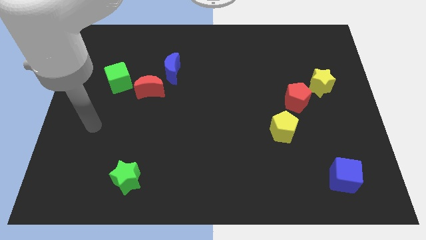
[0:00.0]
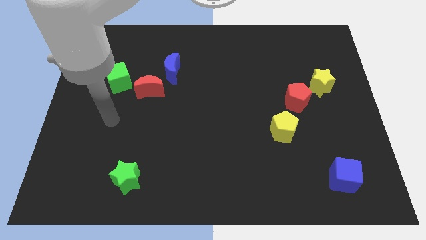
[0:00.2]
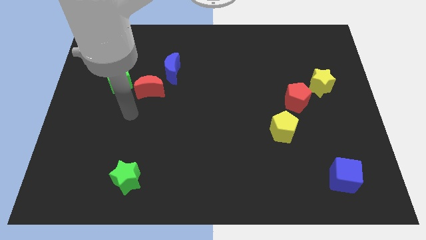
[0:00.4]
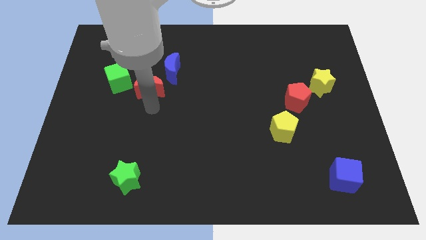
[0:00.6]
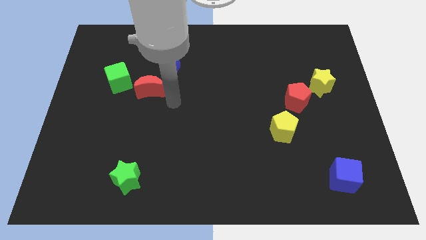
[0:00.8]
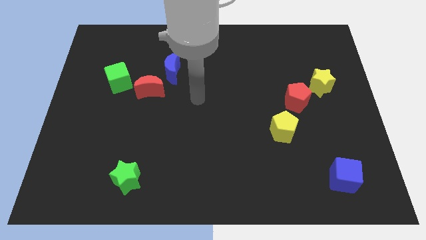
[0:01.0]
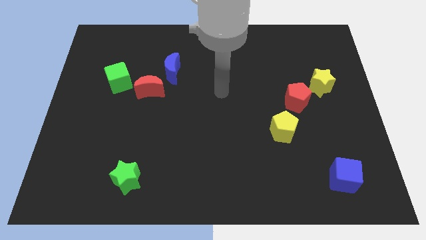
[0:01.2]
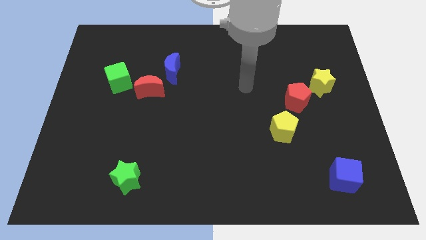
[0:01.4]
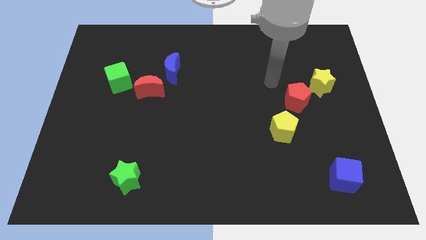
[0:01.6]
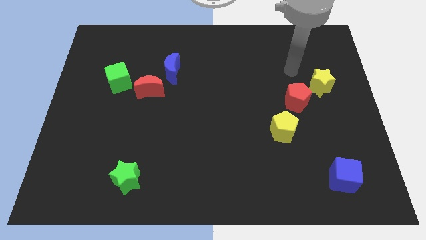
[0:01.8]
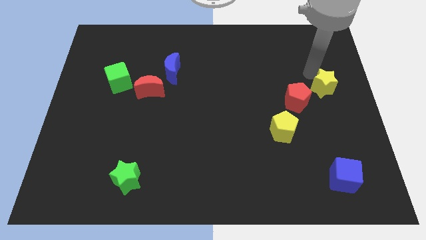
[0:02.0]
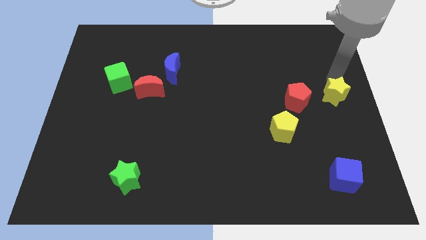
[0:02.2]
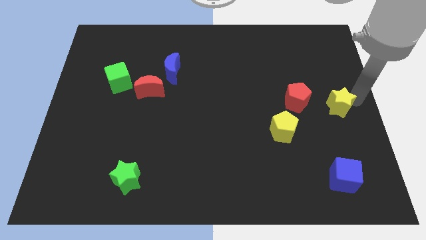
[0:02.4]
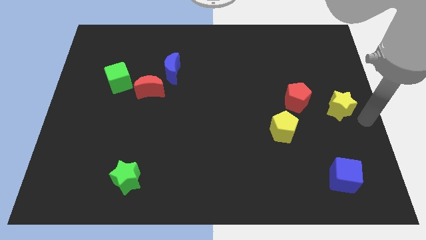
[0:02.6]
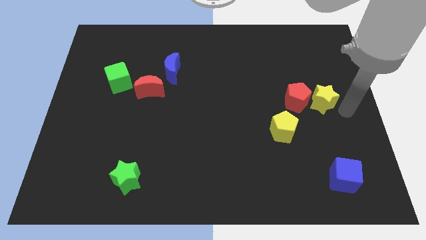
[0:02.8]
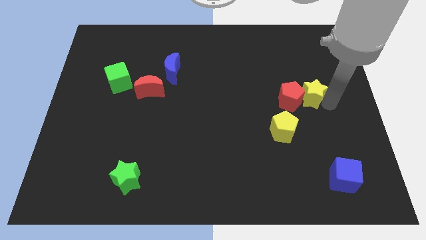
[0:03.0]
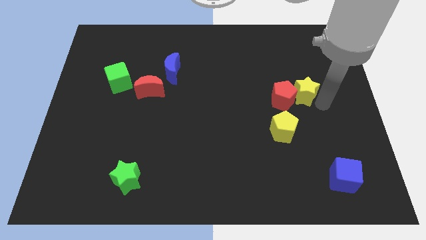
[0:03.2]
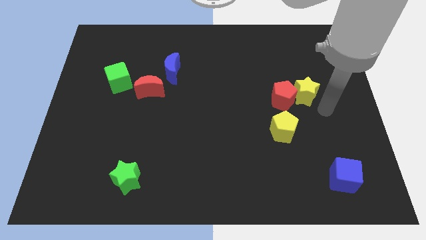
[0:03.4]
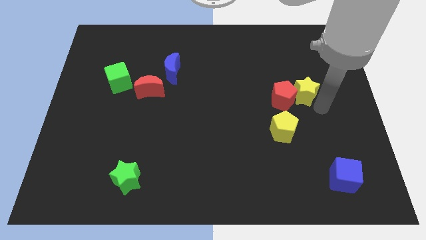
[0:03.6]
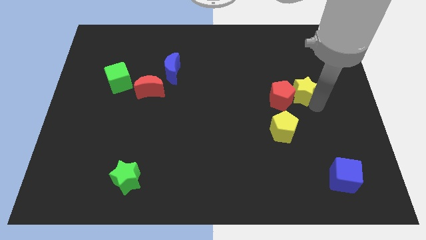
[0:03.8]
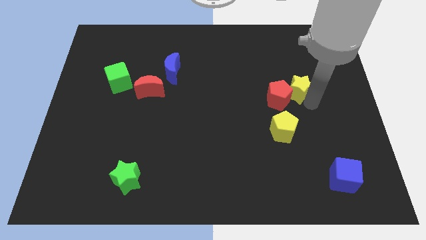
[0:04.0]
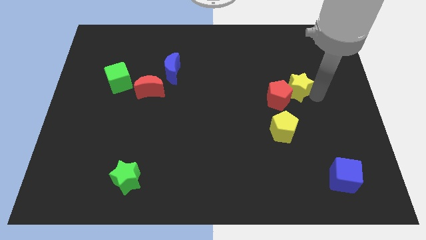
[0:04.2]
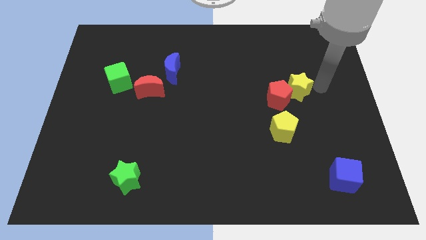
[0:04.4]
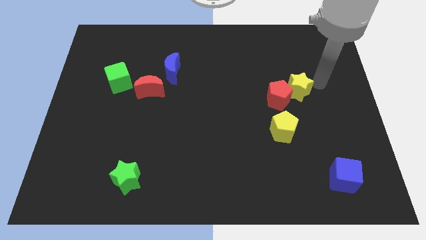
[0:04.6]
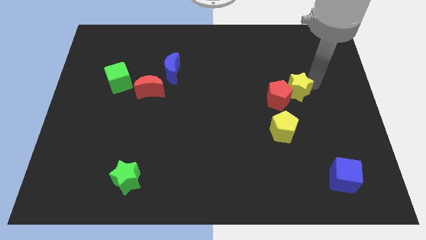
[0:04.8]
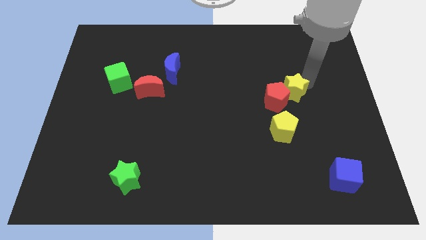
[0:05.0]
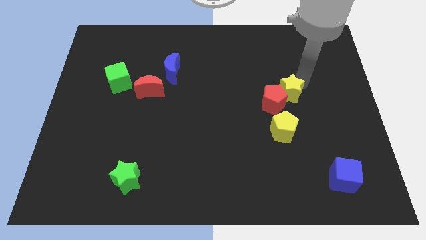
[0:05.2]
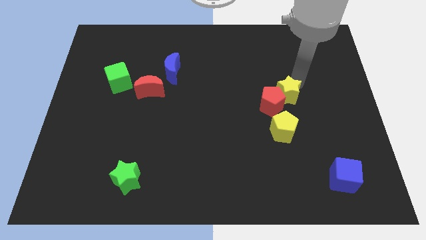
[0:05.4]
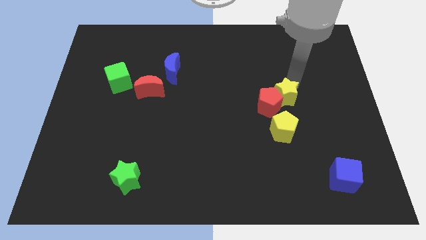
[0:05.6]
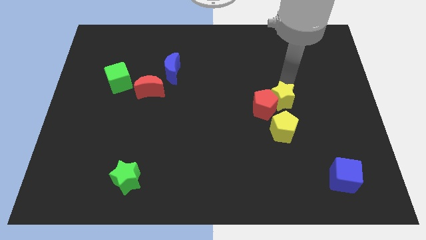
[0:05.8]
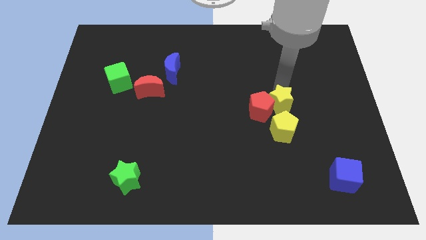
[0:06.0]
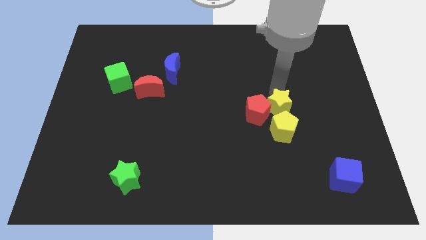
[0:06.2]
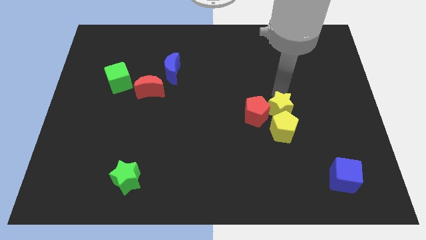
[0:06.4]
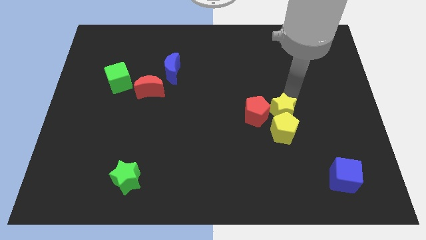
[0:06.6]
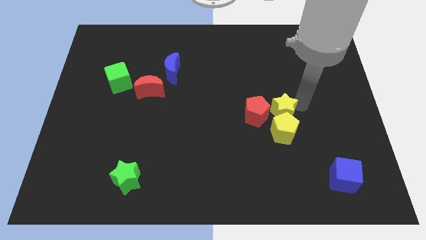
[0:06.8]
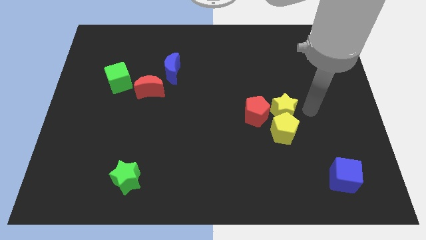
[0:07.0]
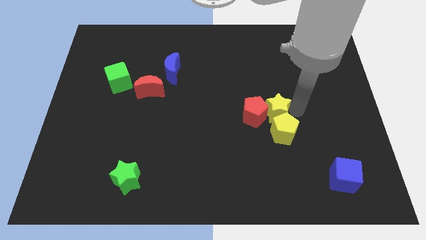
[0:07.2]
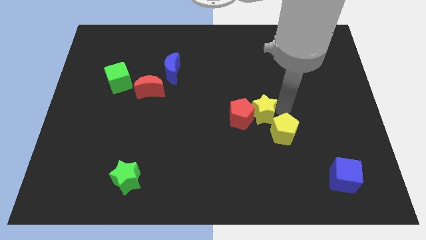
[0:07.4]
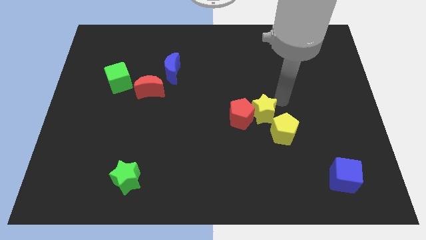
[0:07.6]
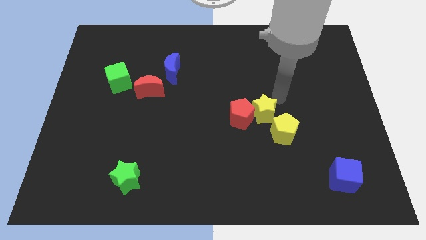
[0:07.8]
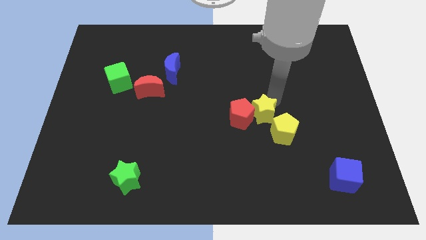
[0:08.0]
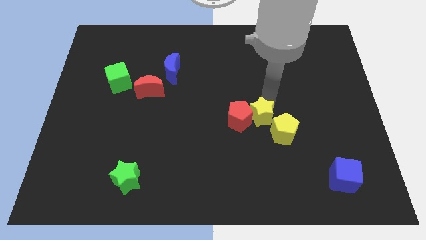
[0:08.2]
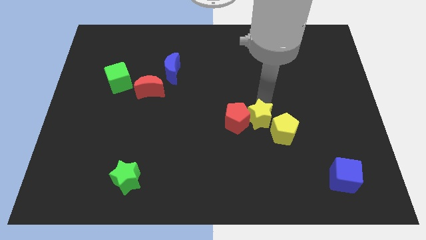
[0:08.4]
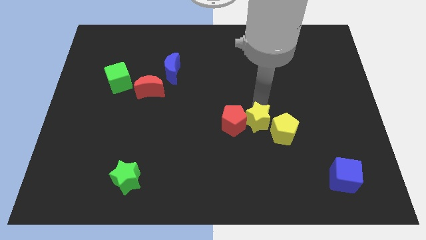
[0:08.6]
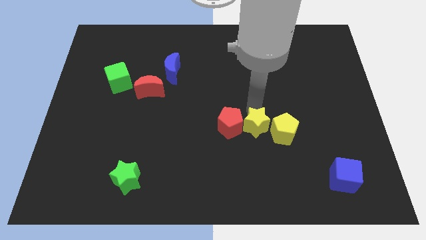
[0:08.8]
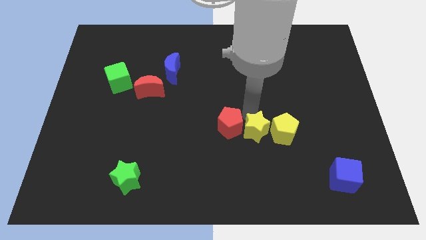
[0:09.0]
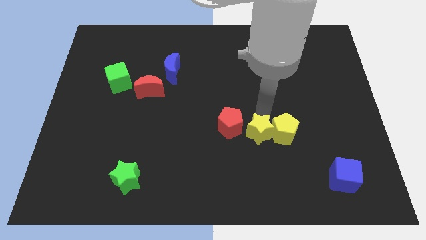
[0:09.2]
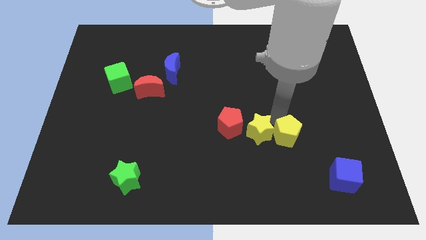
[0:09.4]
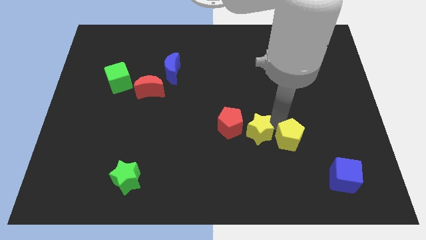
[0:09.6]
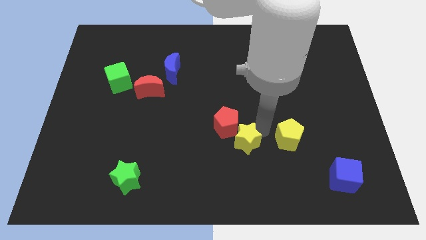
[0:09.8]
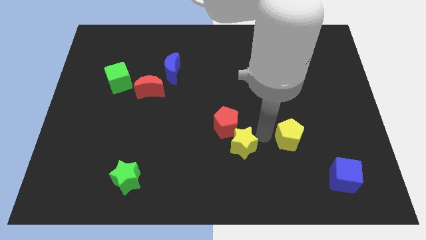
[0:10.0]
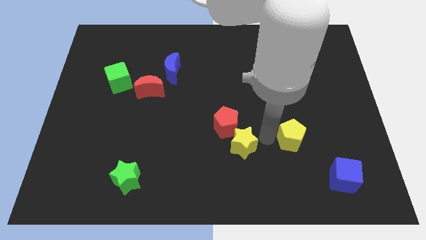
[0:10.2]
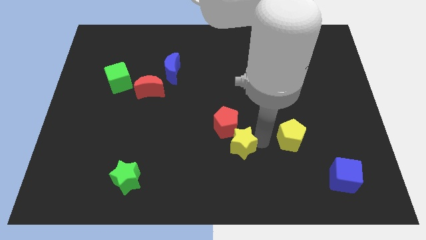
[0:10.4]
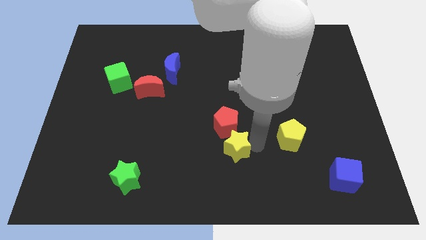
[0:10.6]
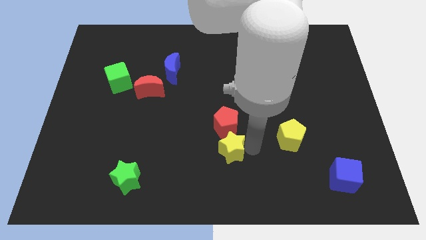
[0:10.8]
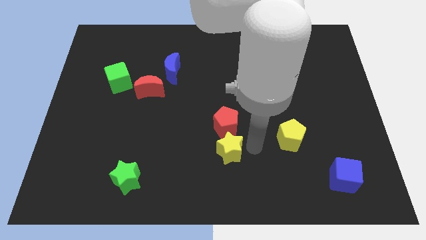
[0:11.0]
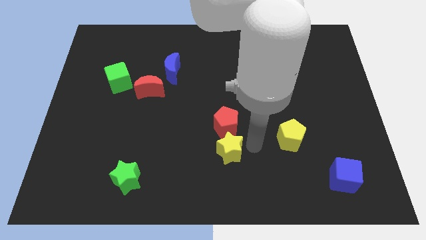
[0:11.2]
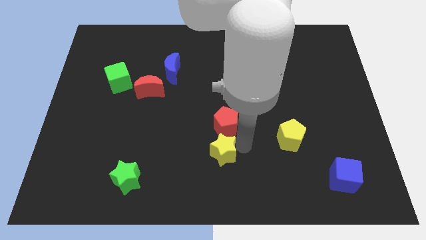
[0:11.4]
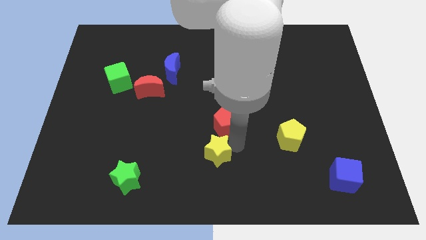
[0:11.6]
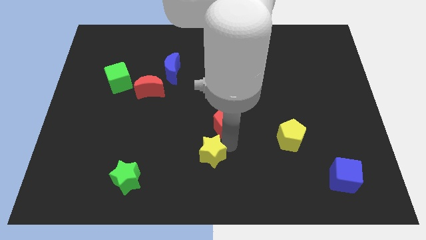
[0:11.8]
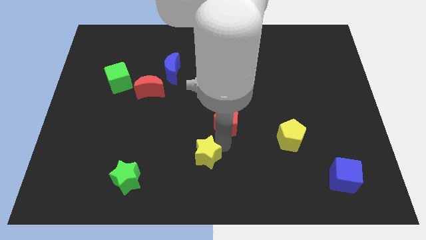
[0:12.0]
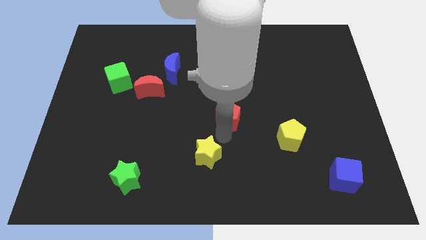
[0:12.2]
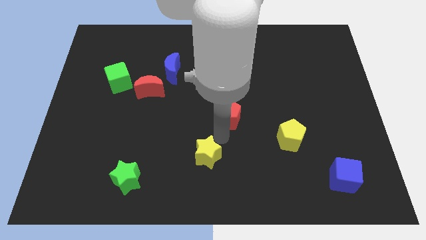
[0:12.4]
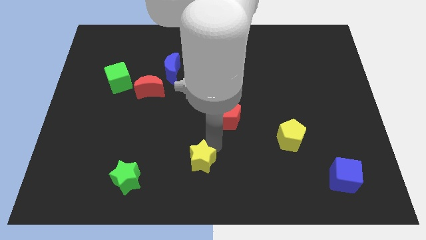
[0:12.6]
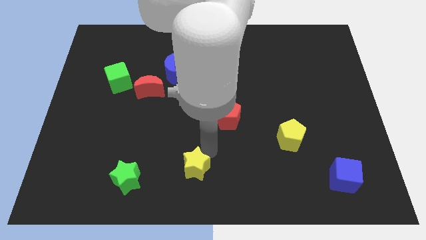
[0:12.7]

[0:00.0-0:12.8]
push the yellow star to the right side of the green star

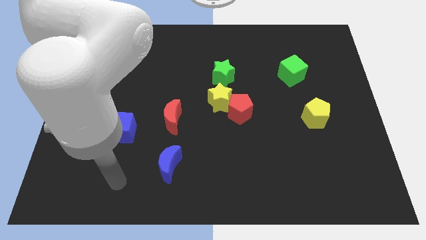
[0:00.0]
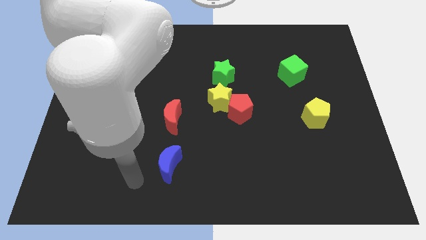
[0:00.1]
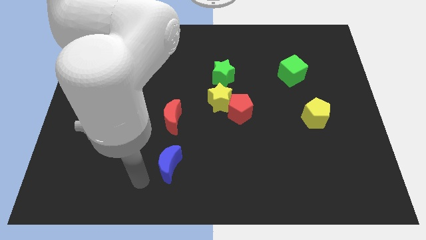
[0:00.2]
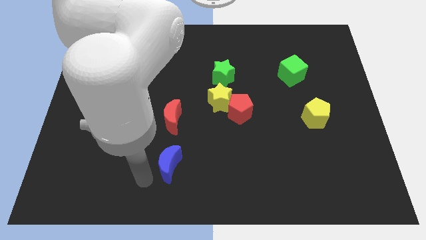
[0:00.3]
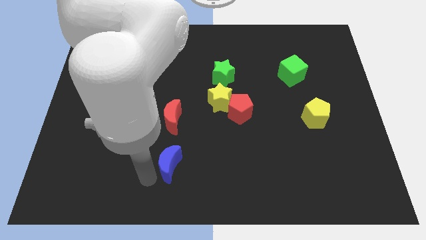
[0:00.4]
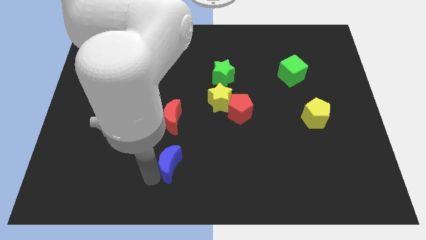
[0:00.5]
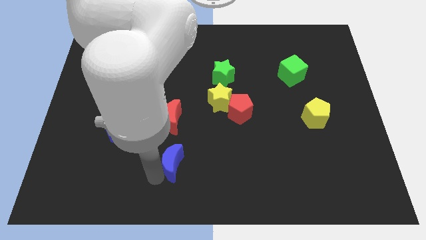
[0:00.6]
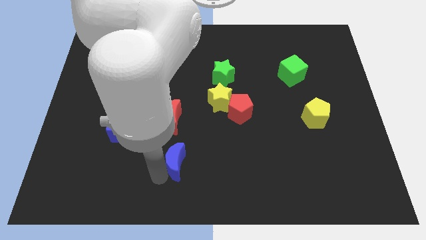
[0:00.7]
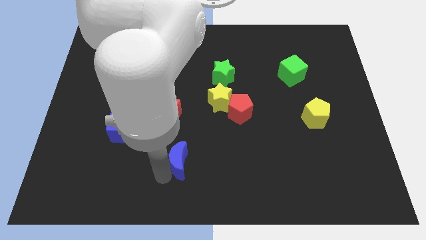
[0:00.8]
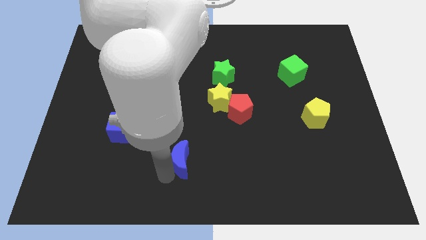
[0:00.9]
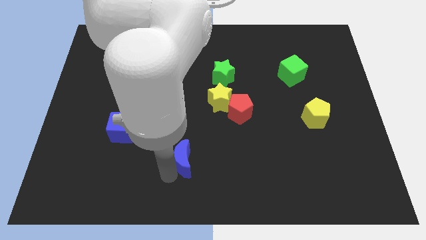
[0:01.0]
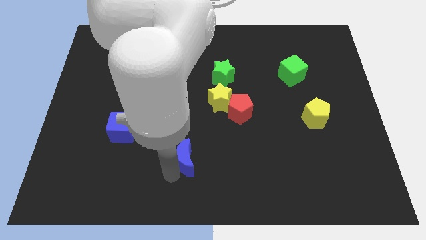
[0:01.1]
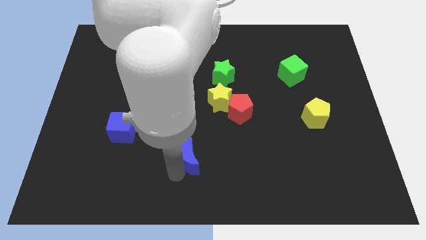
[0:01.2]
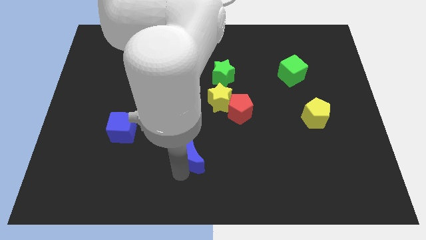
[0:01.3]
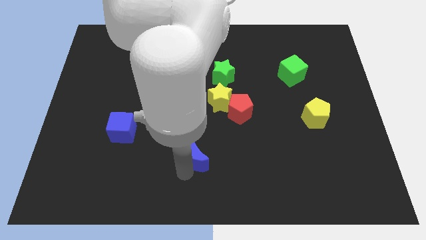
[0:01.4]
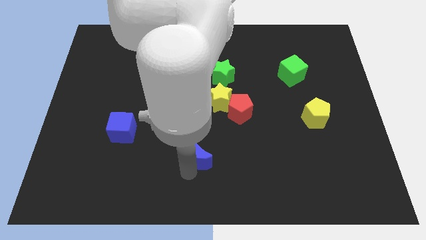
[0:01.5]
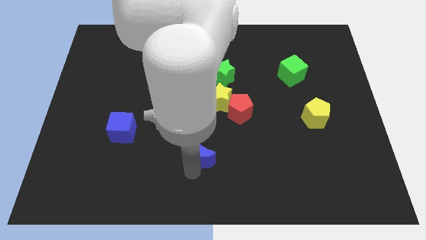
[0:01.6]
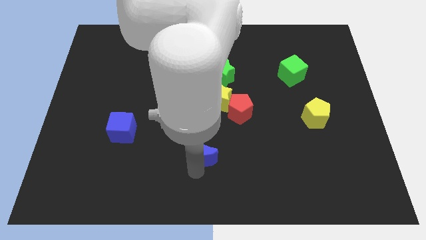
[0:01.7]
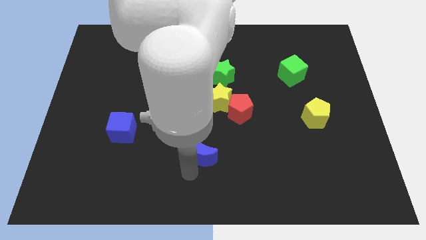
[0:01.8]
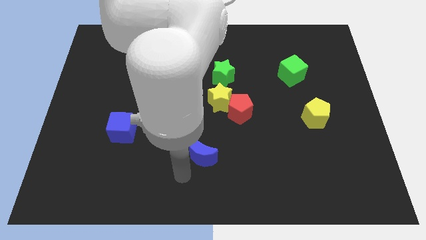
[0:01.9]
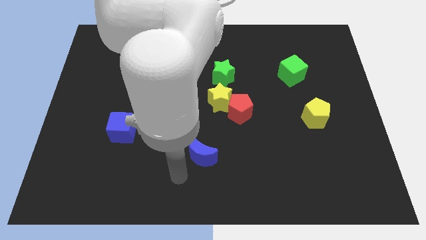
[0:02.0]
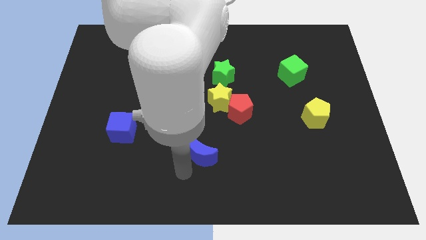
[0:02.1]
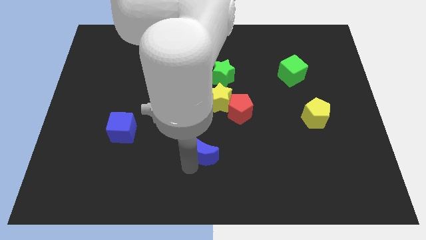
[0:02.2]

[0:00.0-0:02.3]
move the blue moon to the bottom side of the yellow star
